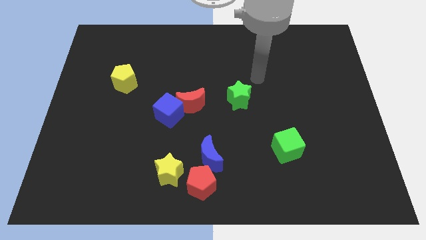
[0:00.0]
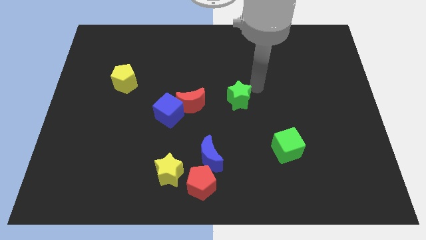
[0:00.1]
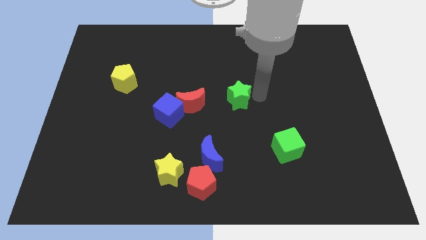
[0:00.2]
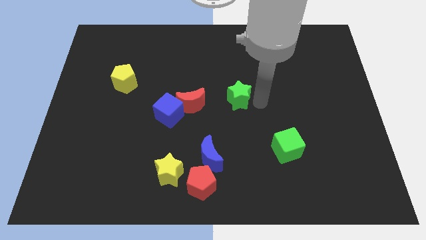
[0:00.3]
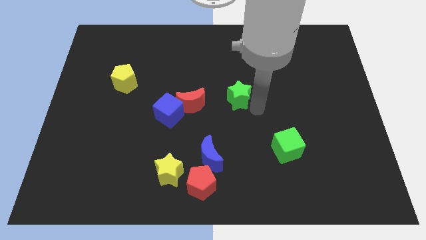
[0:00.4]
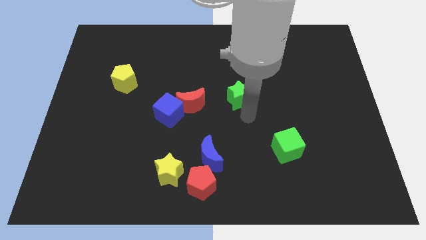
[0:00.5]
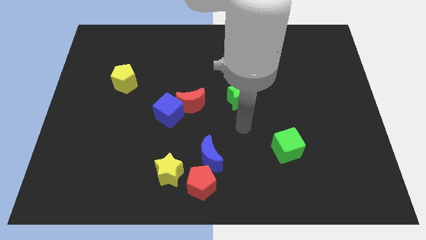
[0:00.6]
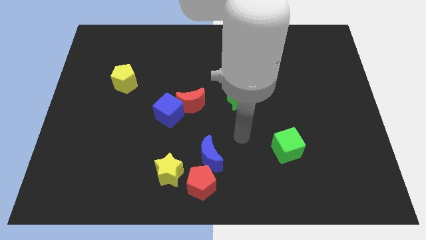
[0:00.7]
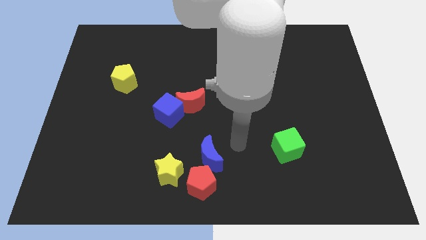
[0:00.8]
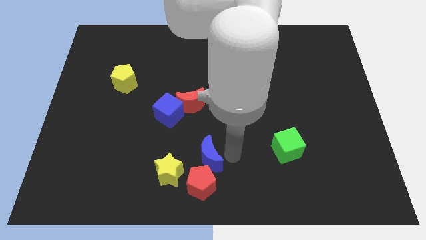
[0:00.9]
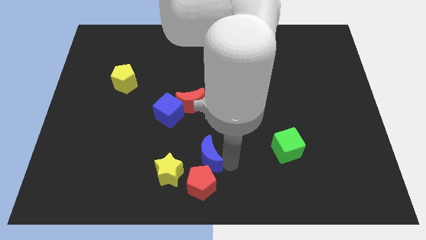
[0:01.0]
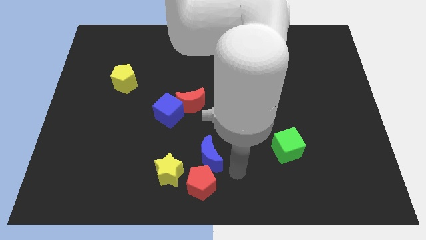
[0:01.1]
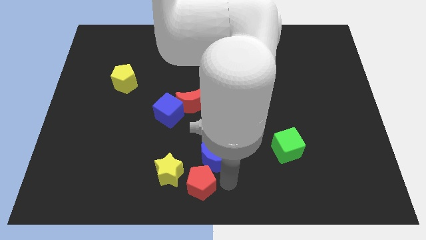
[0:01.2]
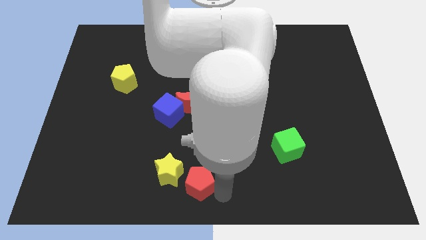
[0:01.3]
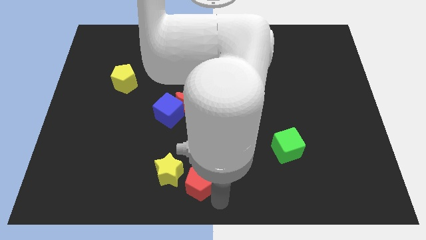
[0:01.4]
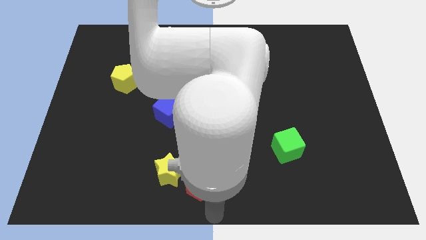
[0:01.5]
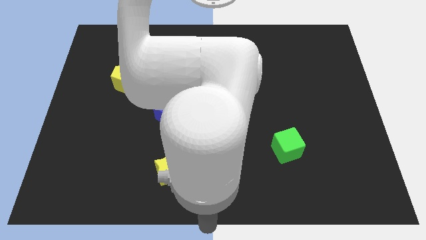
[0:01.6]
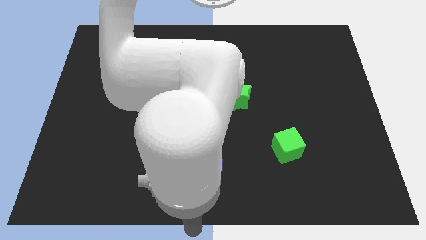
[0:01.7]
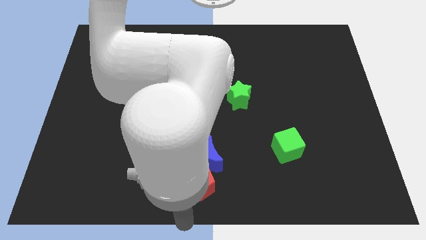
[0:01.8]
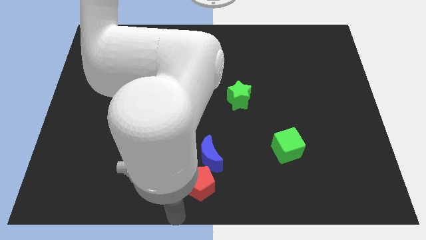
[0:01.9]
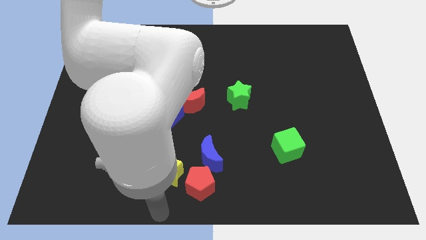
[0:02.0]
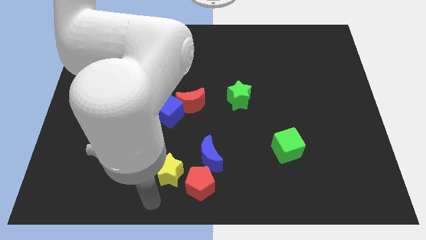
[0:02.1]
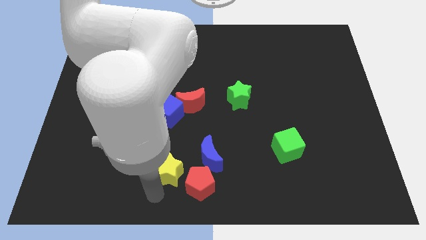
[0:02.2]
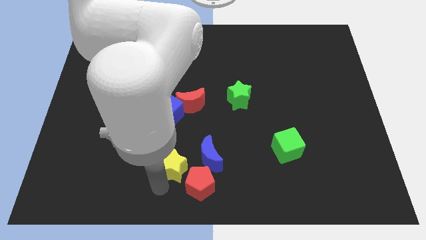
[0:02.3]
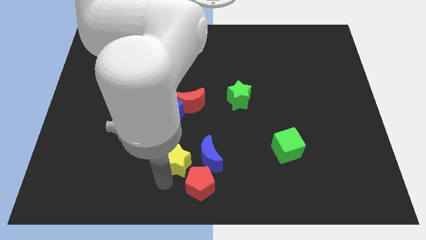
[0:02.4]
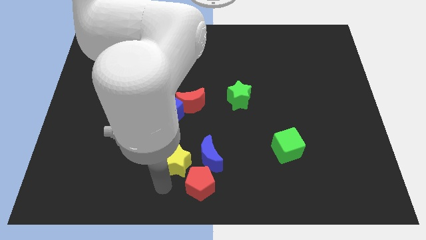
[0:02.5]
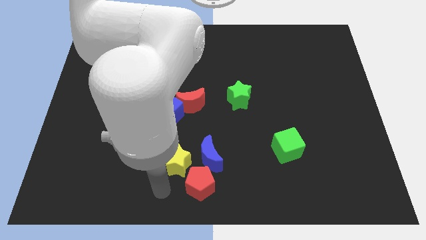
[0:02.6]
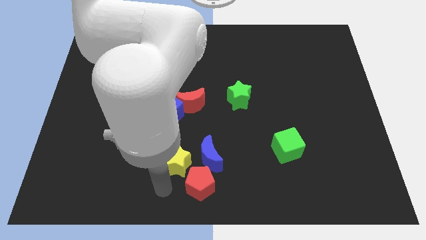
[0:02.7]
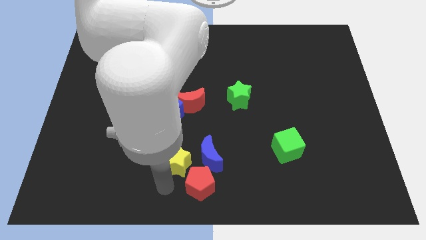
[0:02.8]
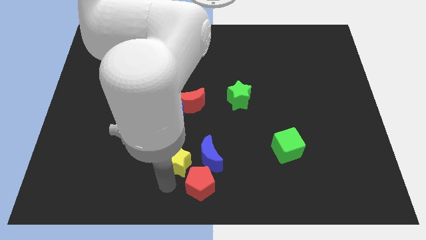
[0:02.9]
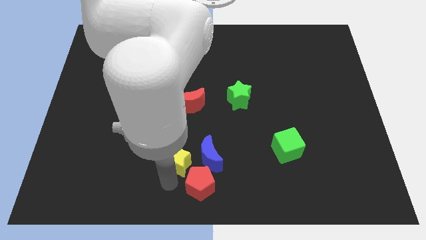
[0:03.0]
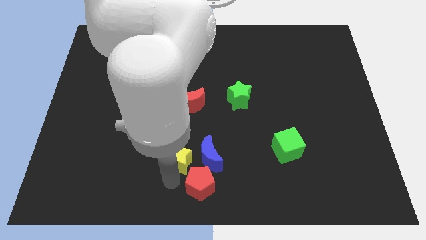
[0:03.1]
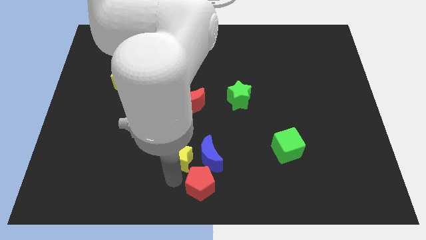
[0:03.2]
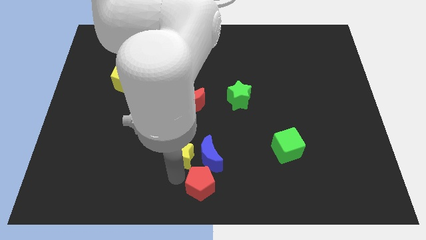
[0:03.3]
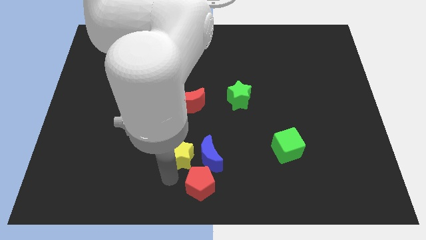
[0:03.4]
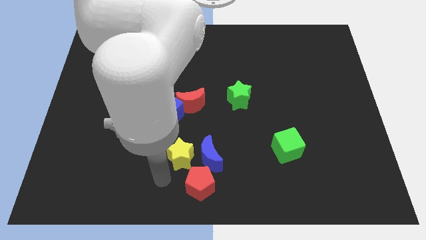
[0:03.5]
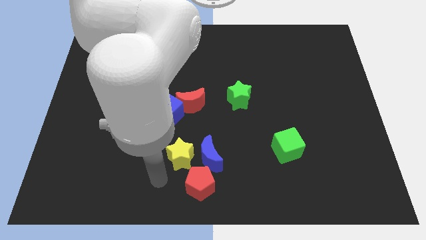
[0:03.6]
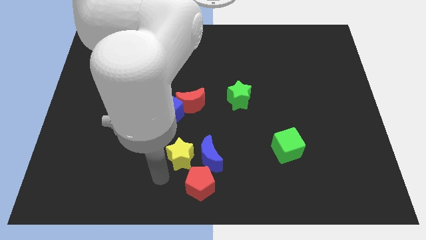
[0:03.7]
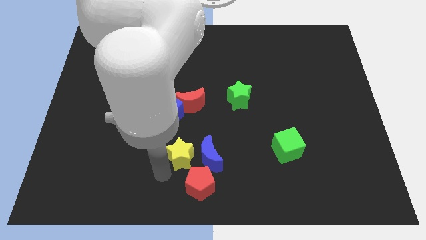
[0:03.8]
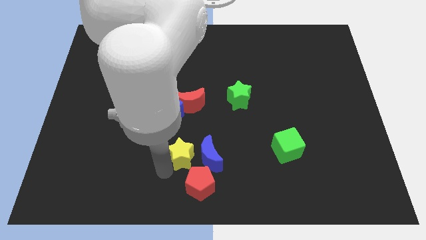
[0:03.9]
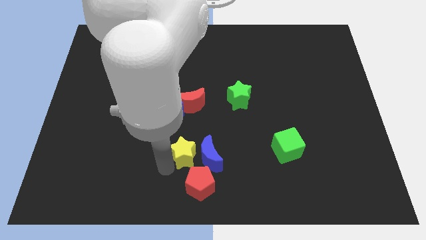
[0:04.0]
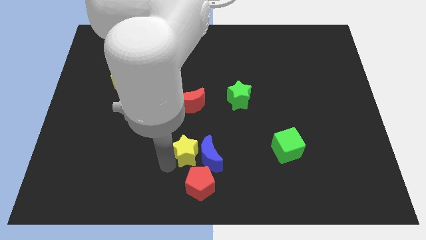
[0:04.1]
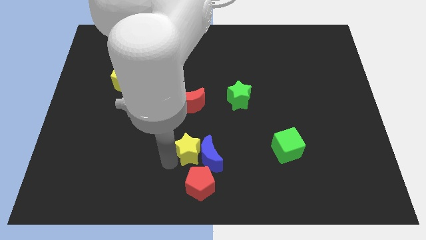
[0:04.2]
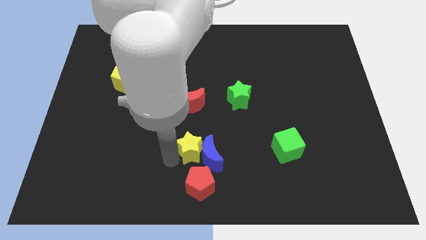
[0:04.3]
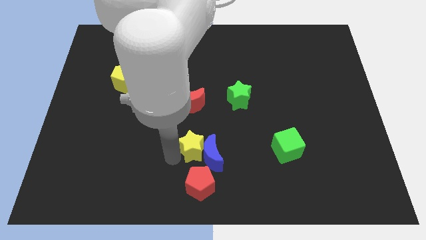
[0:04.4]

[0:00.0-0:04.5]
push the yellow star somewhat diagonally up and right

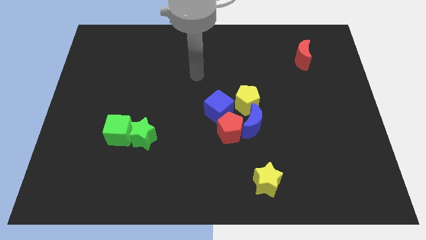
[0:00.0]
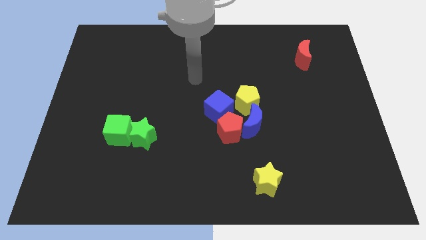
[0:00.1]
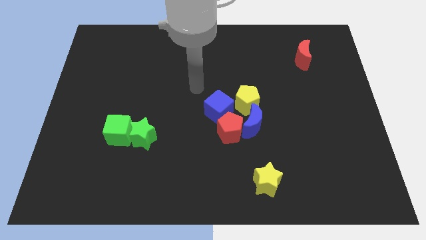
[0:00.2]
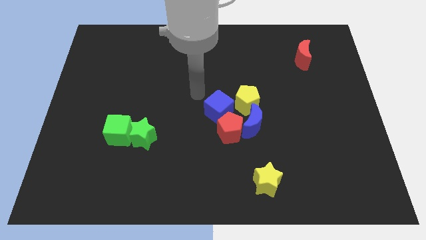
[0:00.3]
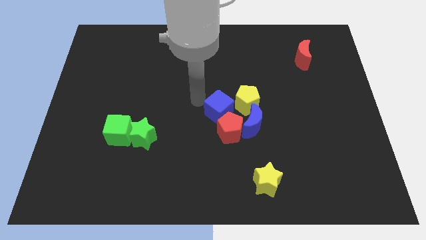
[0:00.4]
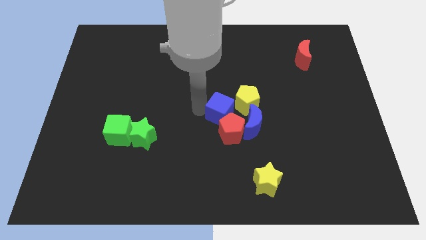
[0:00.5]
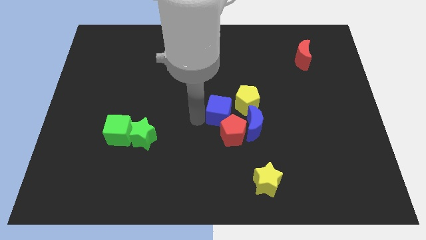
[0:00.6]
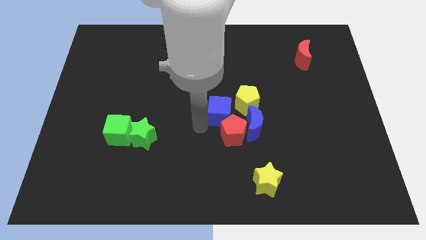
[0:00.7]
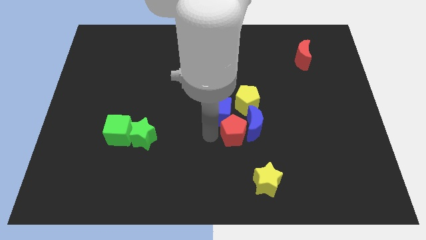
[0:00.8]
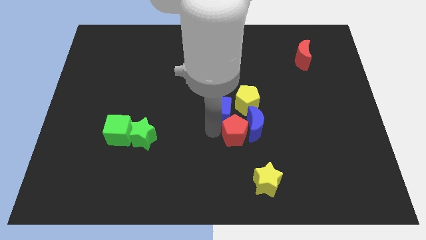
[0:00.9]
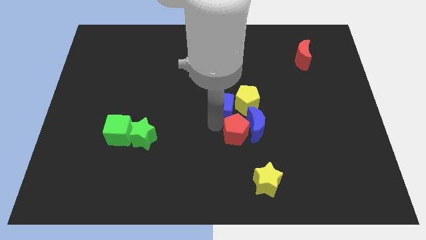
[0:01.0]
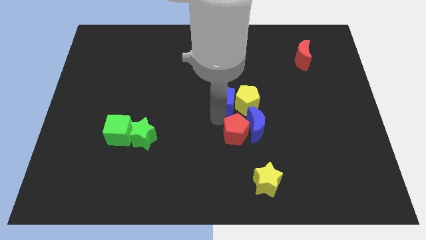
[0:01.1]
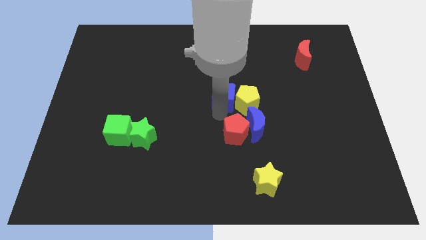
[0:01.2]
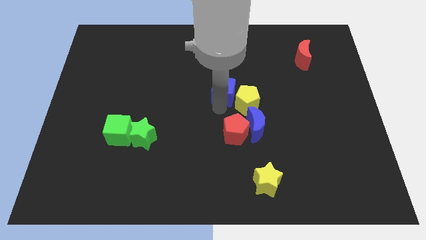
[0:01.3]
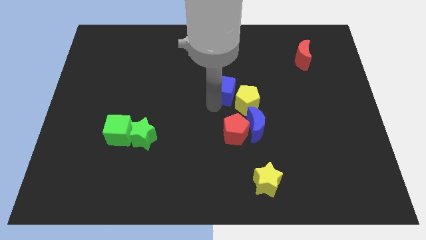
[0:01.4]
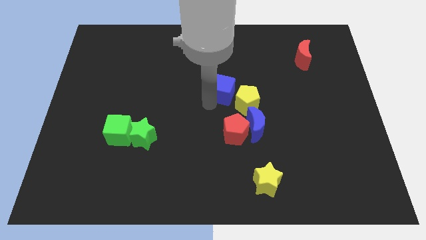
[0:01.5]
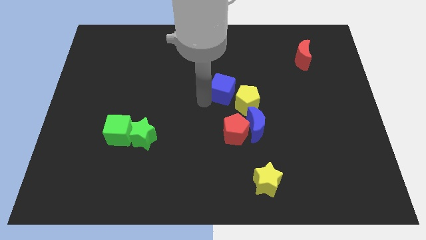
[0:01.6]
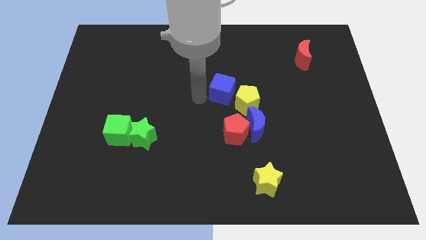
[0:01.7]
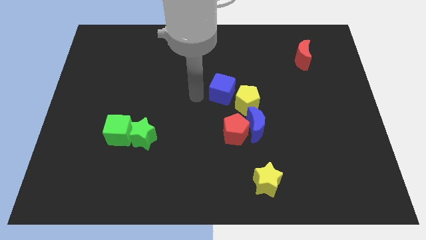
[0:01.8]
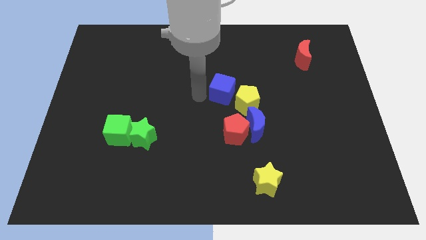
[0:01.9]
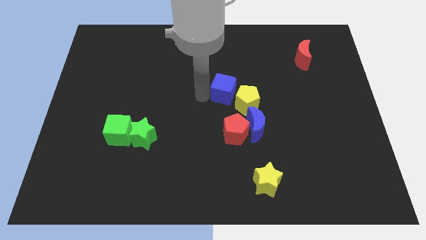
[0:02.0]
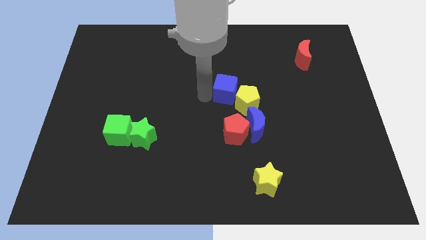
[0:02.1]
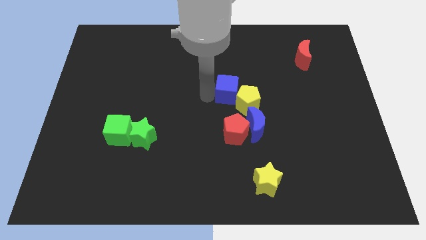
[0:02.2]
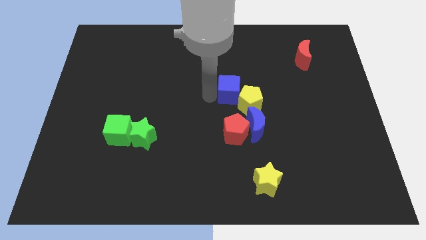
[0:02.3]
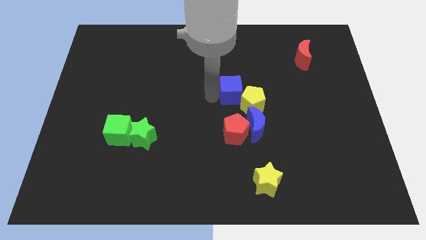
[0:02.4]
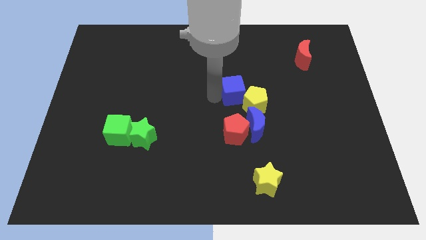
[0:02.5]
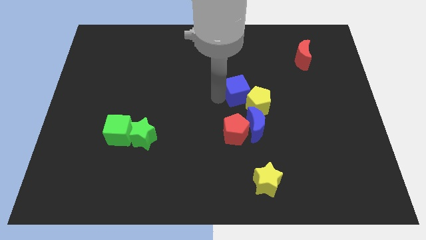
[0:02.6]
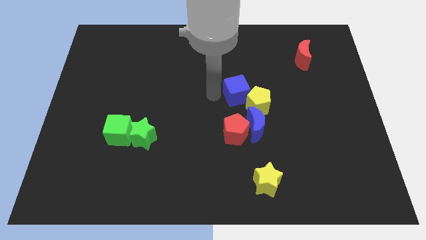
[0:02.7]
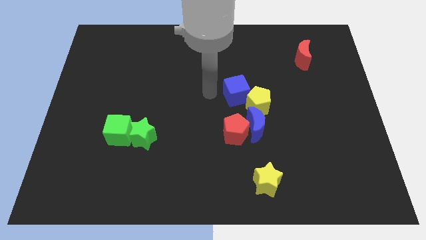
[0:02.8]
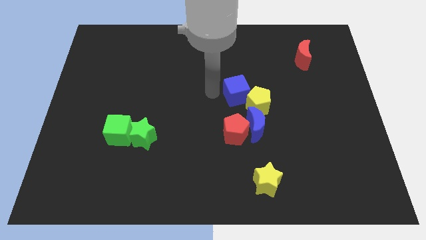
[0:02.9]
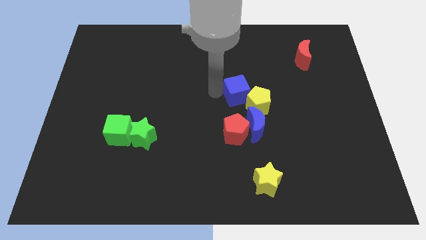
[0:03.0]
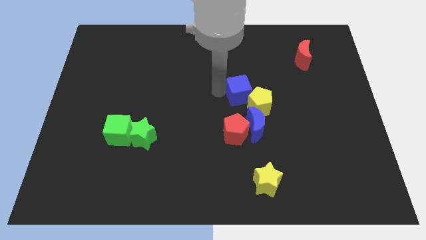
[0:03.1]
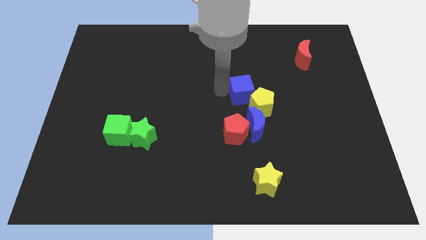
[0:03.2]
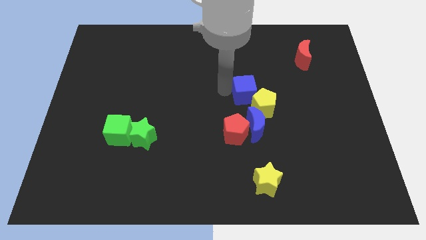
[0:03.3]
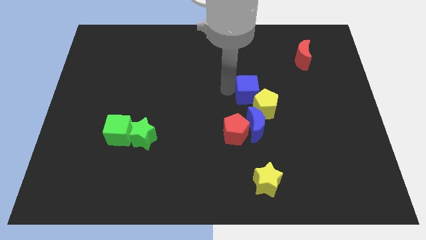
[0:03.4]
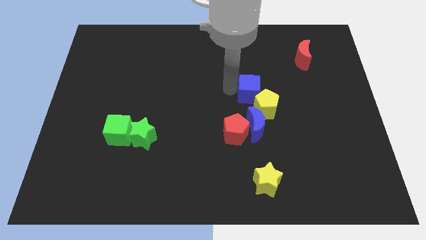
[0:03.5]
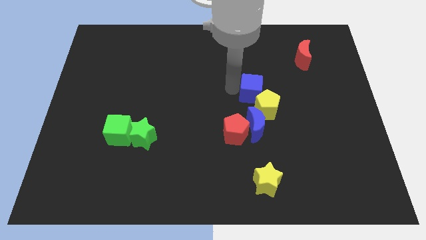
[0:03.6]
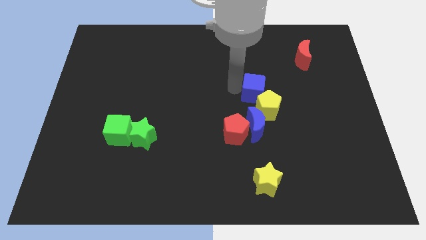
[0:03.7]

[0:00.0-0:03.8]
slightly push the blue cube right
